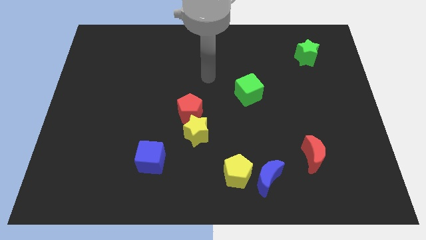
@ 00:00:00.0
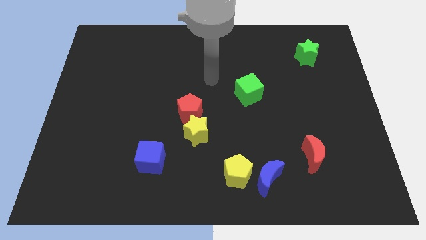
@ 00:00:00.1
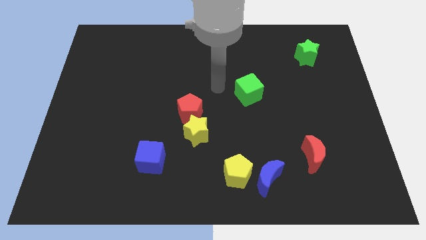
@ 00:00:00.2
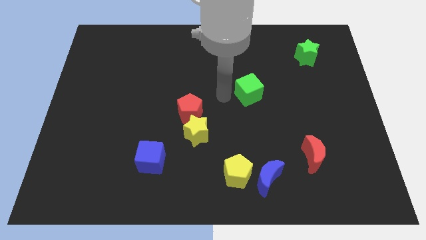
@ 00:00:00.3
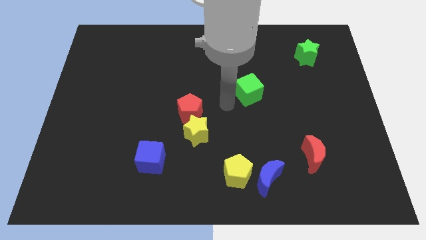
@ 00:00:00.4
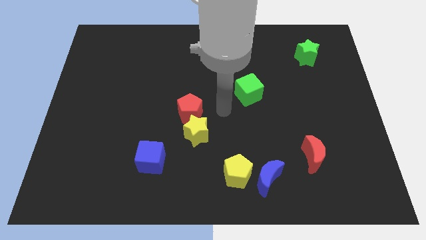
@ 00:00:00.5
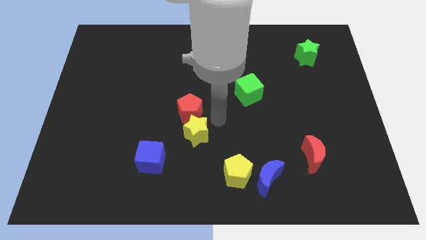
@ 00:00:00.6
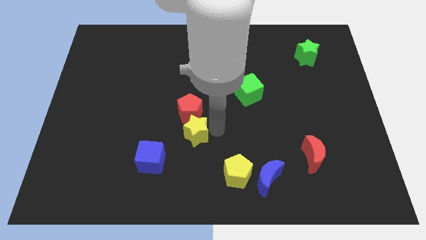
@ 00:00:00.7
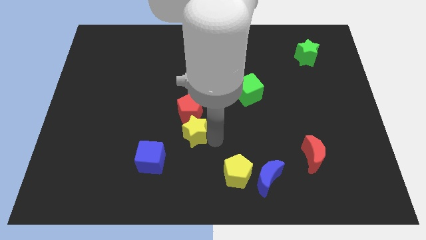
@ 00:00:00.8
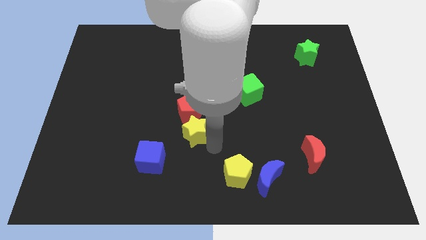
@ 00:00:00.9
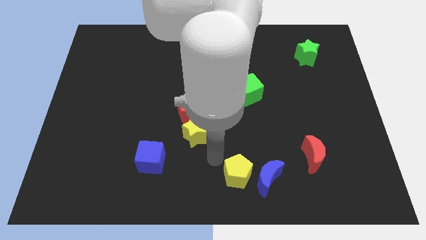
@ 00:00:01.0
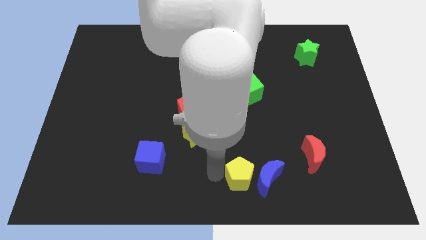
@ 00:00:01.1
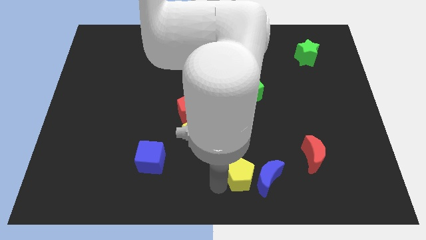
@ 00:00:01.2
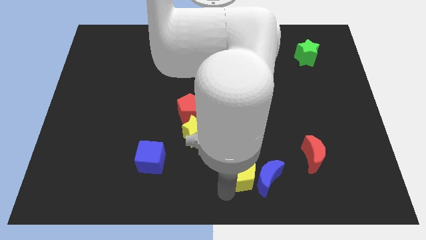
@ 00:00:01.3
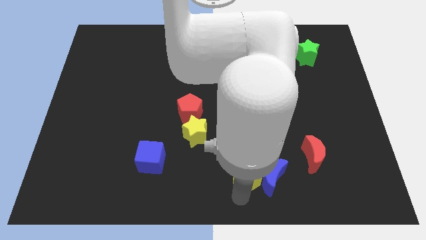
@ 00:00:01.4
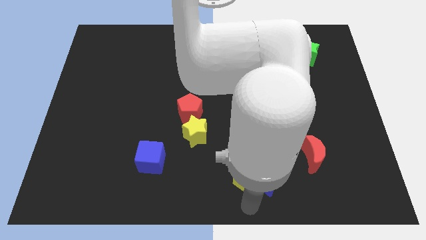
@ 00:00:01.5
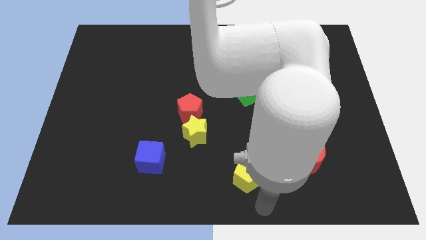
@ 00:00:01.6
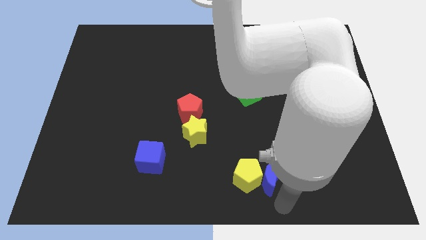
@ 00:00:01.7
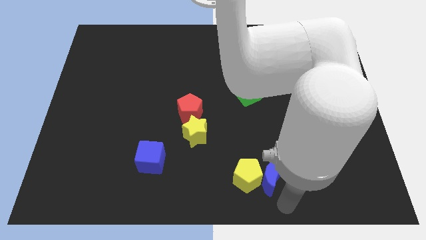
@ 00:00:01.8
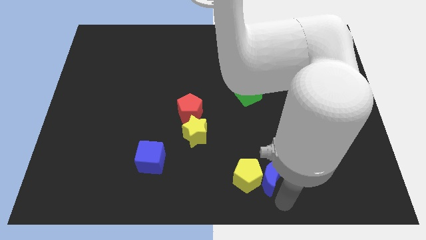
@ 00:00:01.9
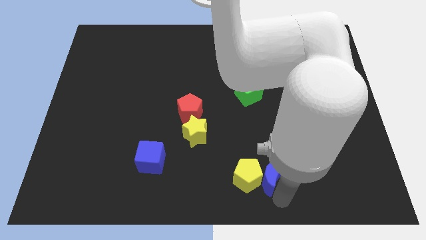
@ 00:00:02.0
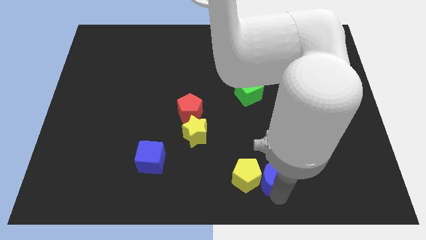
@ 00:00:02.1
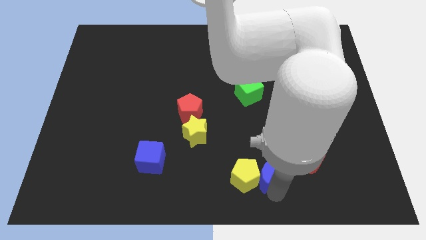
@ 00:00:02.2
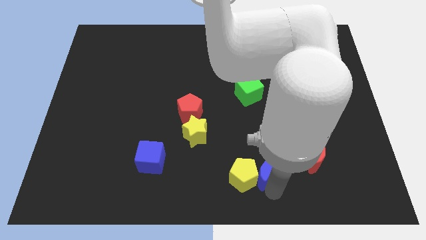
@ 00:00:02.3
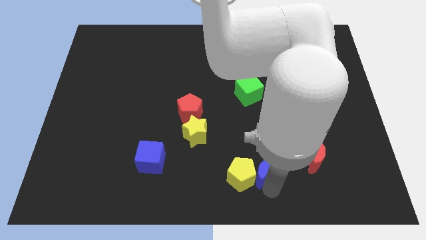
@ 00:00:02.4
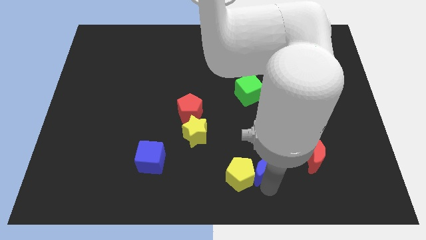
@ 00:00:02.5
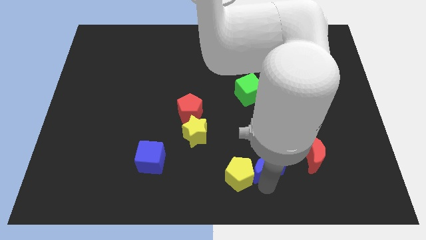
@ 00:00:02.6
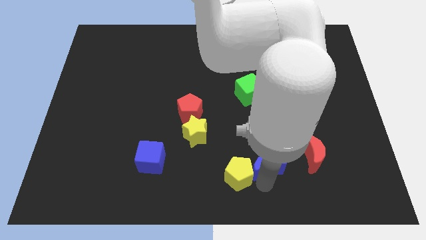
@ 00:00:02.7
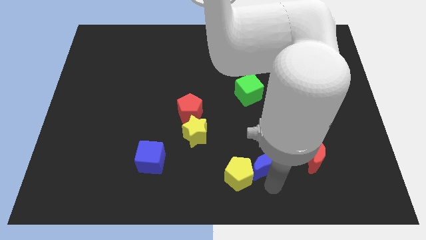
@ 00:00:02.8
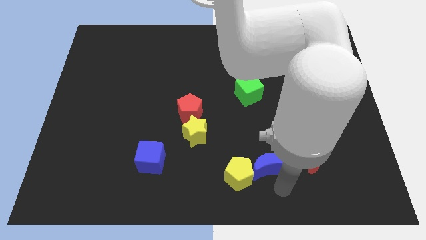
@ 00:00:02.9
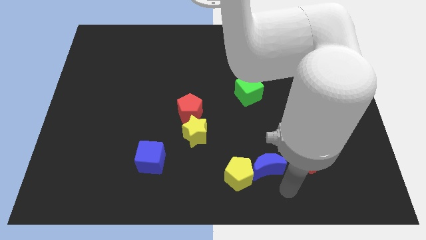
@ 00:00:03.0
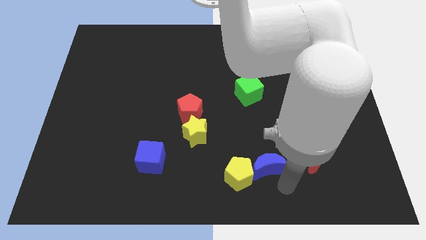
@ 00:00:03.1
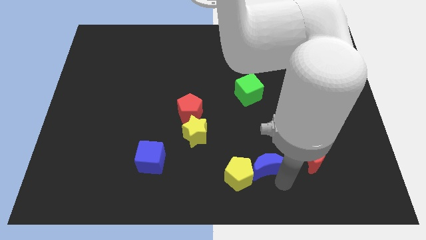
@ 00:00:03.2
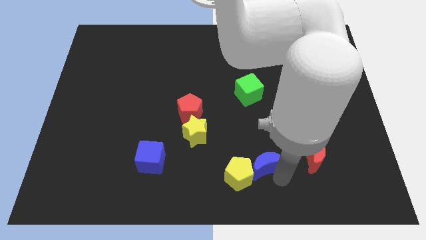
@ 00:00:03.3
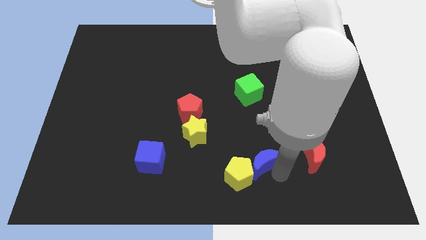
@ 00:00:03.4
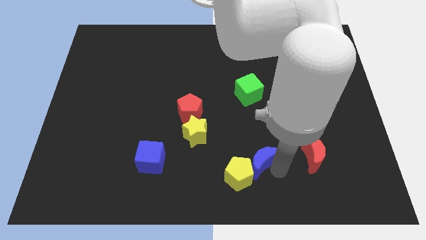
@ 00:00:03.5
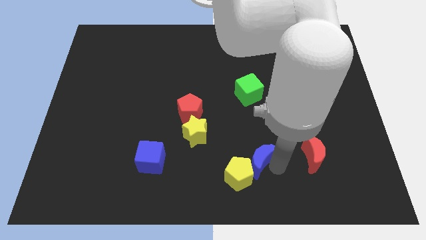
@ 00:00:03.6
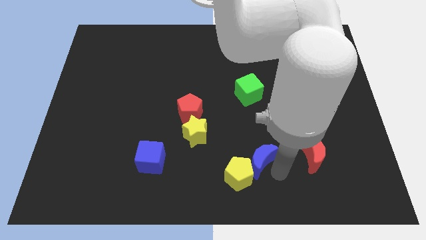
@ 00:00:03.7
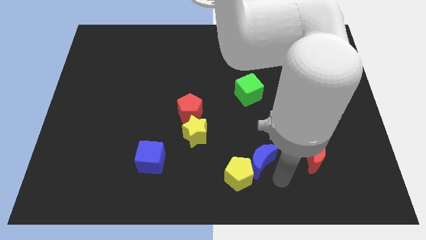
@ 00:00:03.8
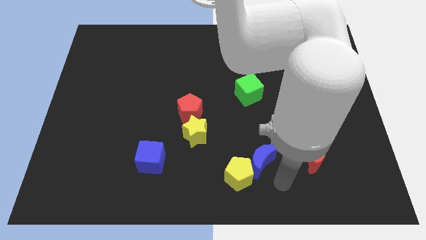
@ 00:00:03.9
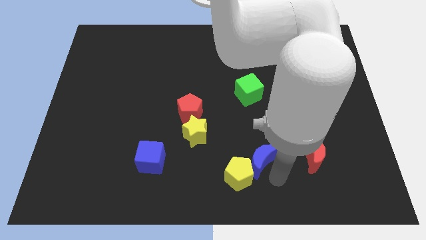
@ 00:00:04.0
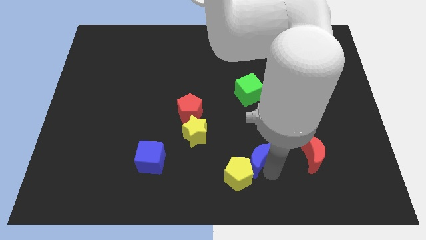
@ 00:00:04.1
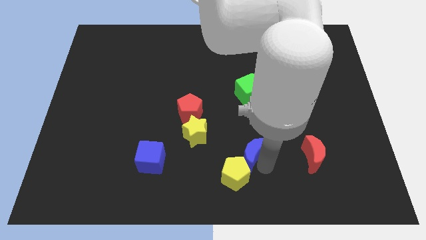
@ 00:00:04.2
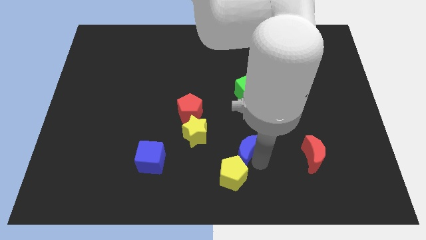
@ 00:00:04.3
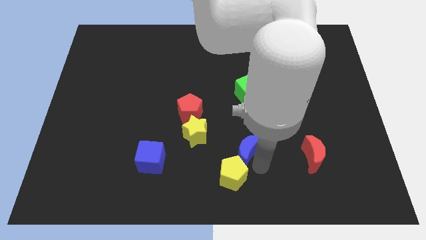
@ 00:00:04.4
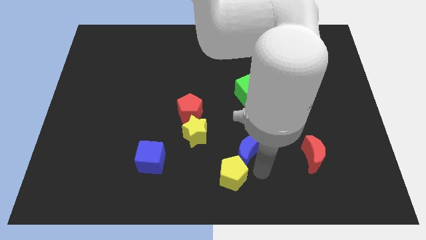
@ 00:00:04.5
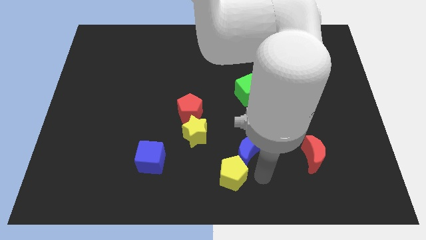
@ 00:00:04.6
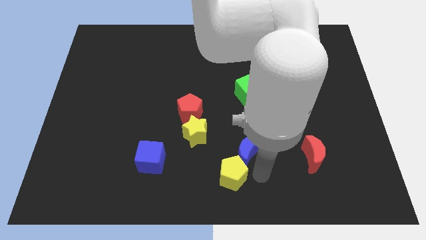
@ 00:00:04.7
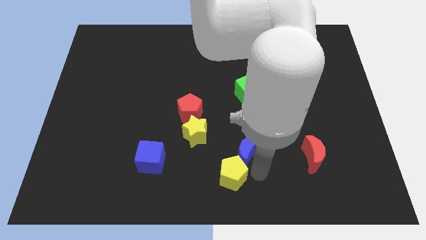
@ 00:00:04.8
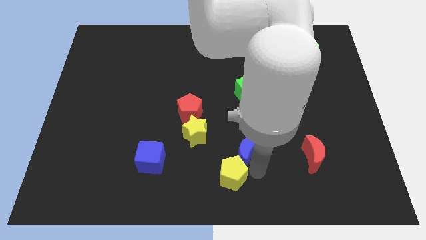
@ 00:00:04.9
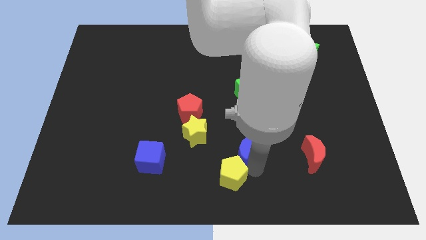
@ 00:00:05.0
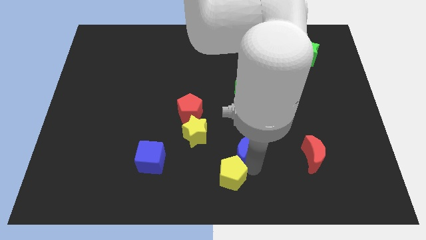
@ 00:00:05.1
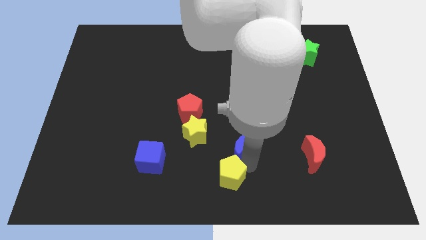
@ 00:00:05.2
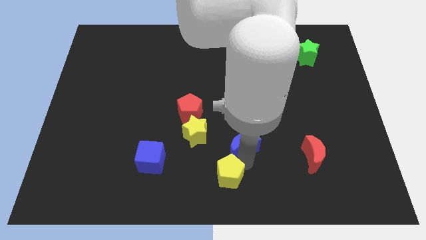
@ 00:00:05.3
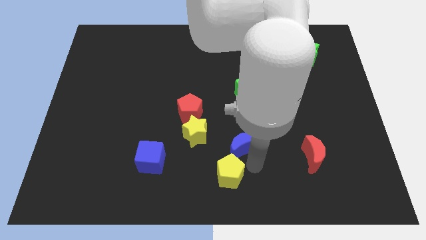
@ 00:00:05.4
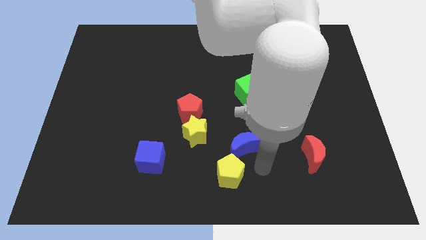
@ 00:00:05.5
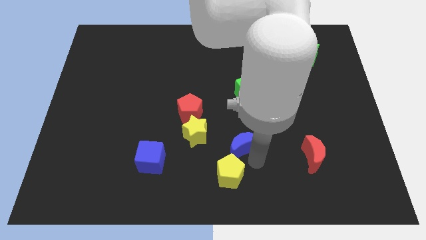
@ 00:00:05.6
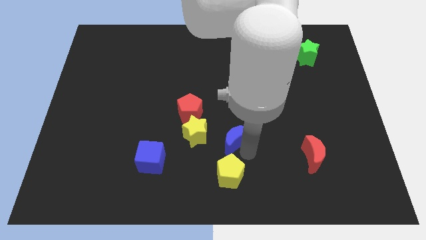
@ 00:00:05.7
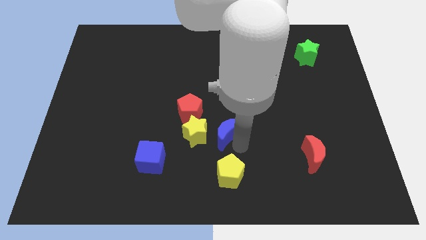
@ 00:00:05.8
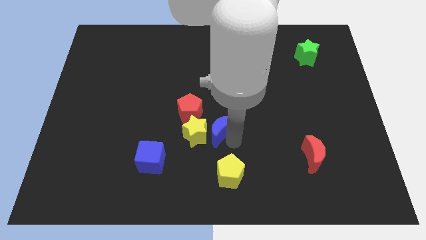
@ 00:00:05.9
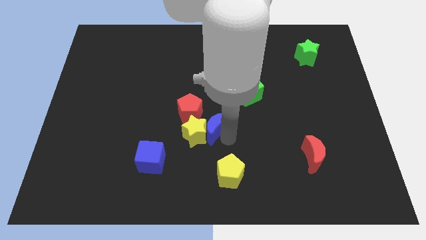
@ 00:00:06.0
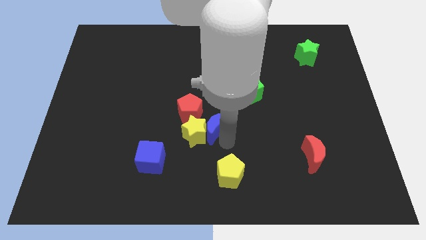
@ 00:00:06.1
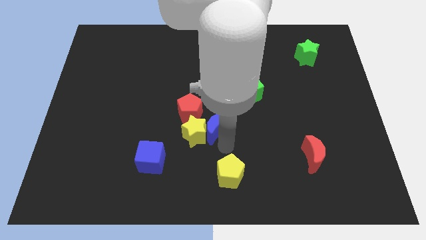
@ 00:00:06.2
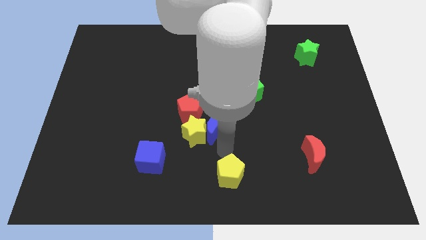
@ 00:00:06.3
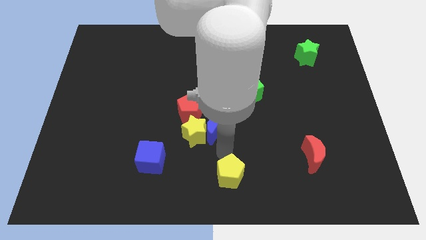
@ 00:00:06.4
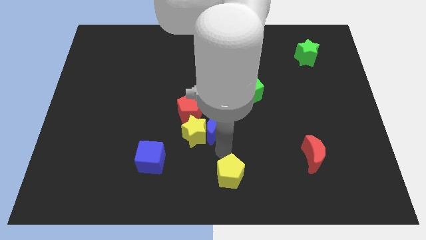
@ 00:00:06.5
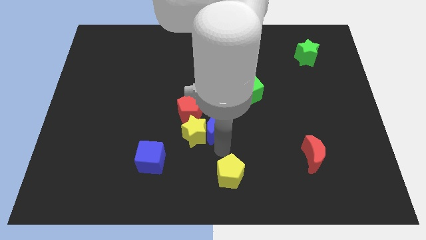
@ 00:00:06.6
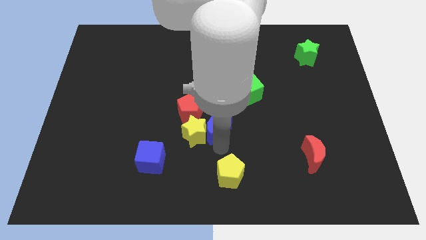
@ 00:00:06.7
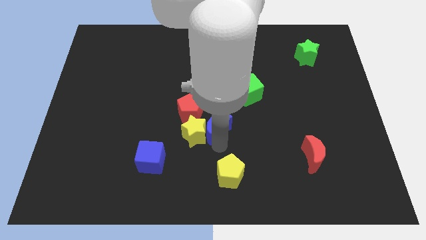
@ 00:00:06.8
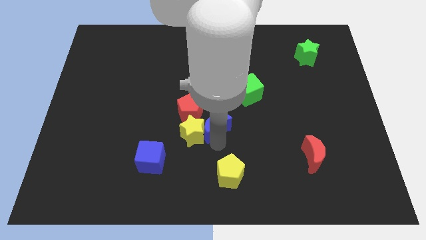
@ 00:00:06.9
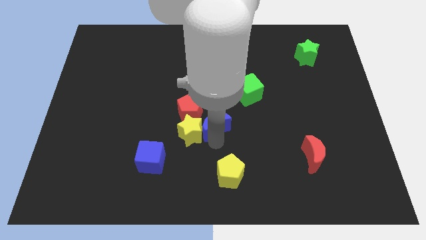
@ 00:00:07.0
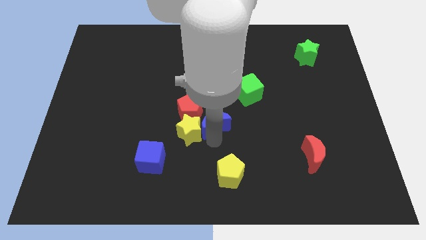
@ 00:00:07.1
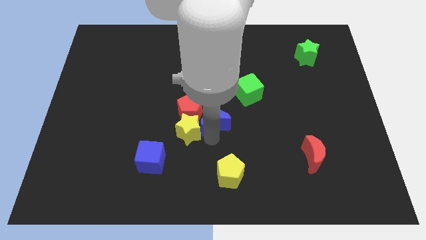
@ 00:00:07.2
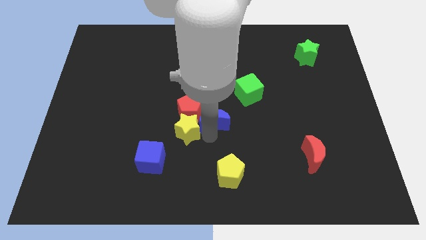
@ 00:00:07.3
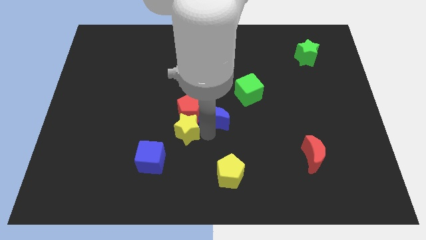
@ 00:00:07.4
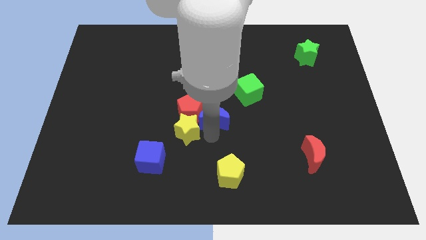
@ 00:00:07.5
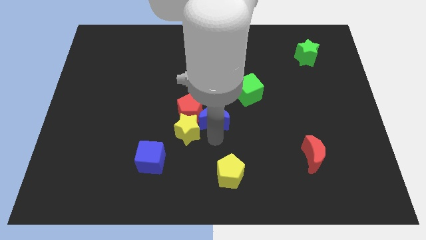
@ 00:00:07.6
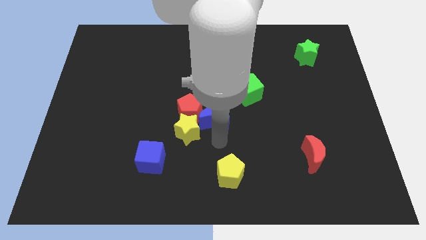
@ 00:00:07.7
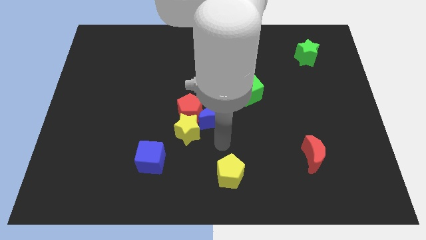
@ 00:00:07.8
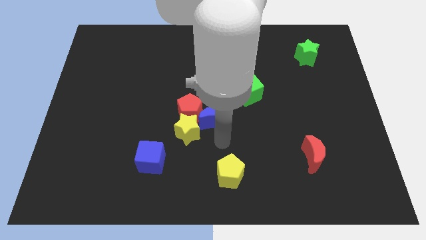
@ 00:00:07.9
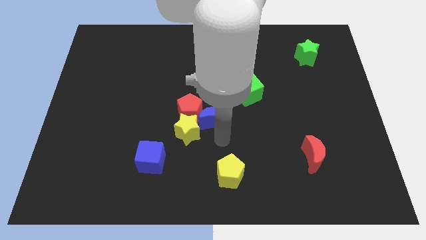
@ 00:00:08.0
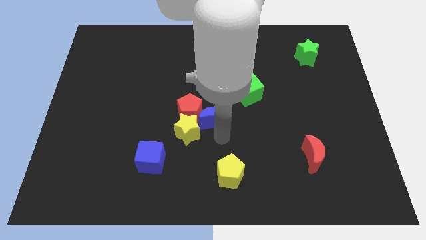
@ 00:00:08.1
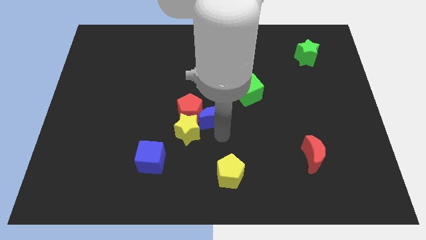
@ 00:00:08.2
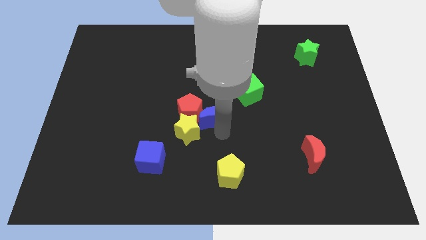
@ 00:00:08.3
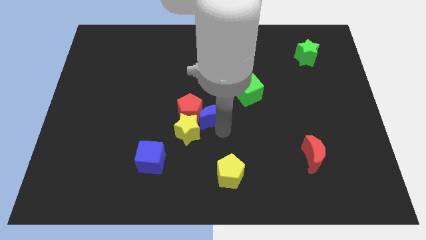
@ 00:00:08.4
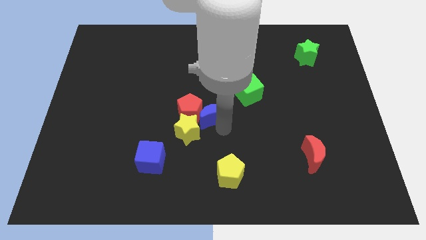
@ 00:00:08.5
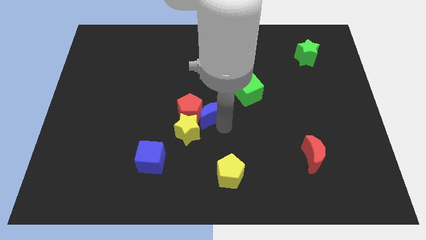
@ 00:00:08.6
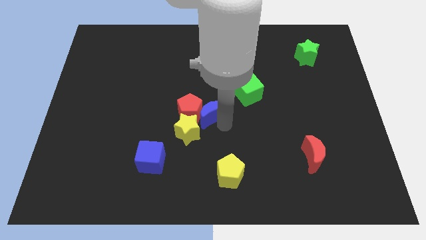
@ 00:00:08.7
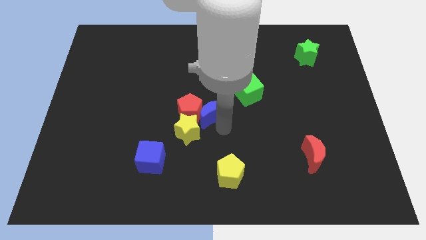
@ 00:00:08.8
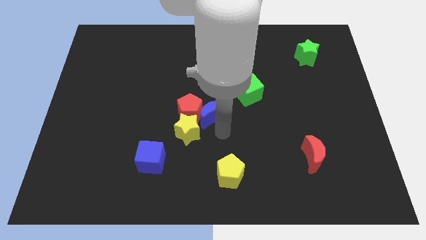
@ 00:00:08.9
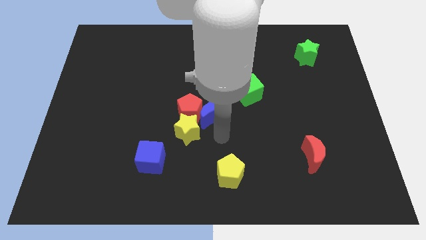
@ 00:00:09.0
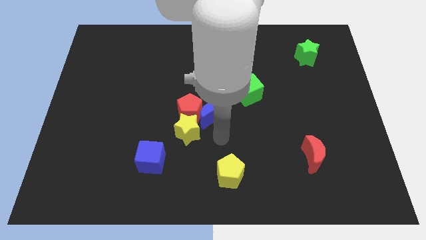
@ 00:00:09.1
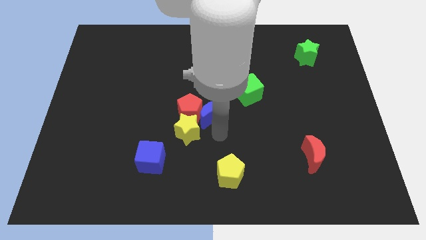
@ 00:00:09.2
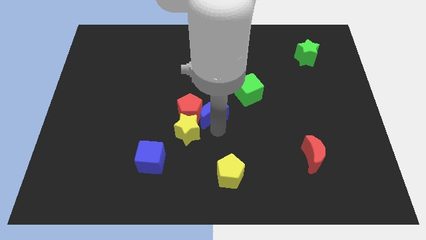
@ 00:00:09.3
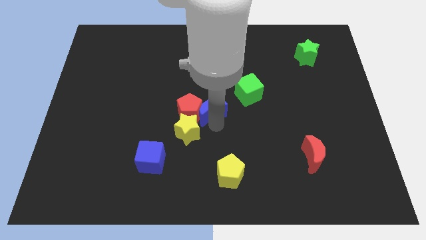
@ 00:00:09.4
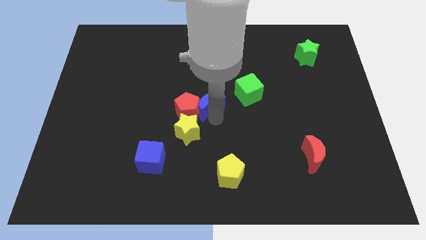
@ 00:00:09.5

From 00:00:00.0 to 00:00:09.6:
slide the blue moon up and left diagonally
